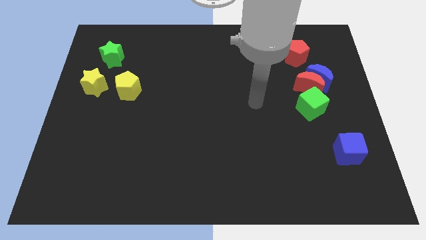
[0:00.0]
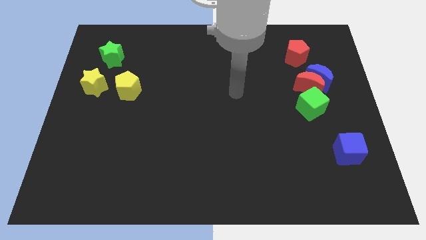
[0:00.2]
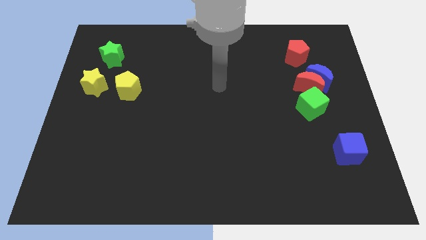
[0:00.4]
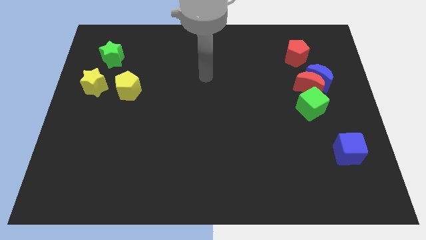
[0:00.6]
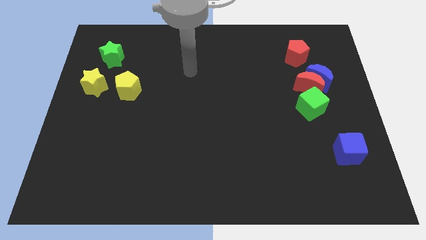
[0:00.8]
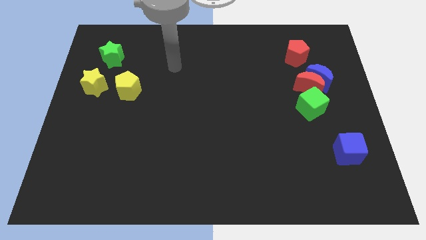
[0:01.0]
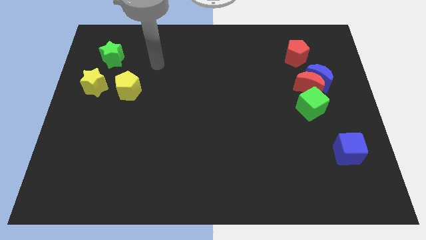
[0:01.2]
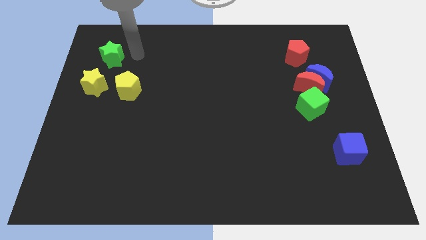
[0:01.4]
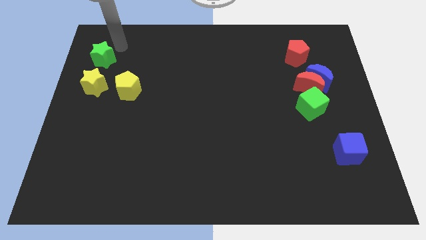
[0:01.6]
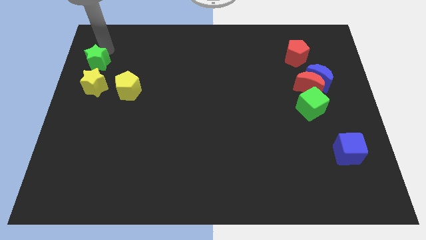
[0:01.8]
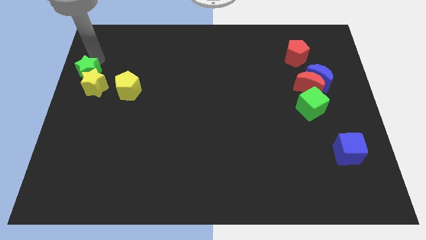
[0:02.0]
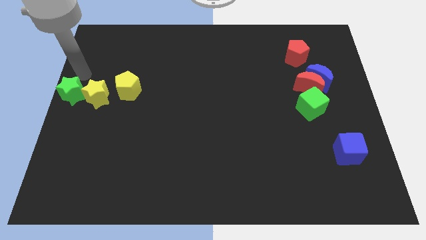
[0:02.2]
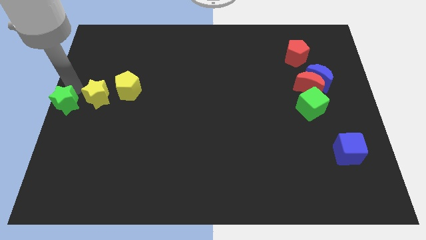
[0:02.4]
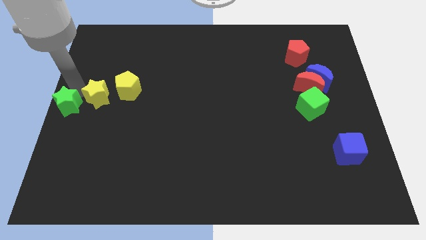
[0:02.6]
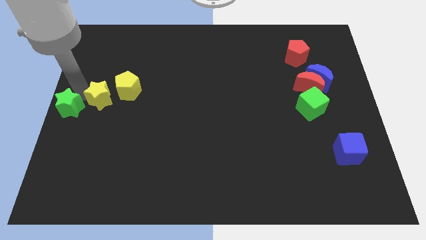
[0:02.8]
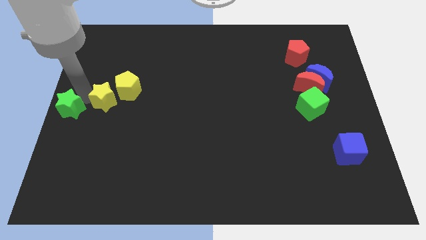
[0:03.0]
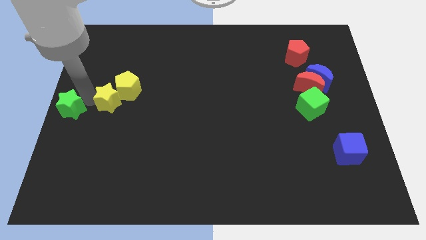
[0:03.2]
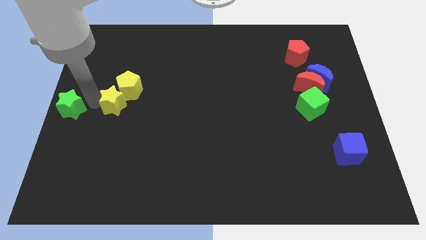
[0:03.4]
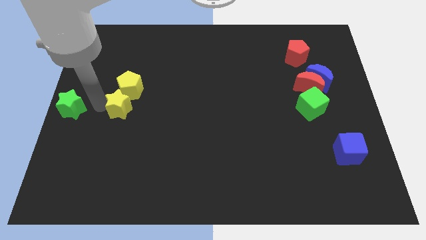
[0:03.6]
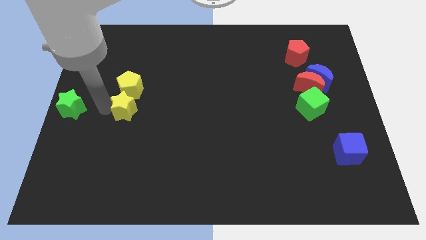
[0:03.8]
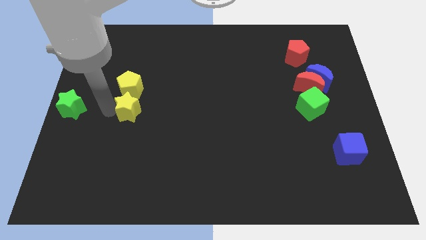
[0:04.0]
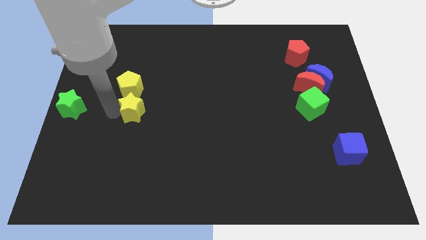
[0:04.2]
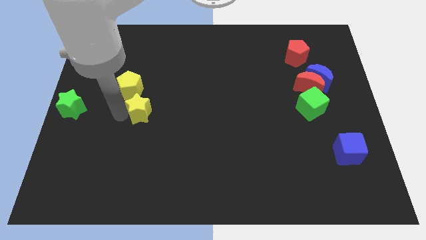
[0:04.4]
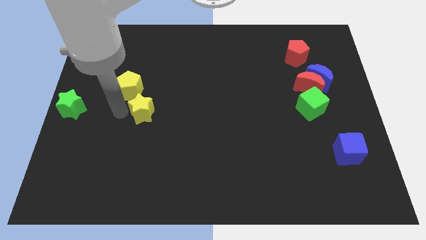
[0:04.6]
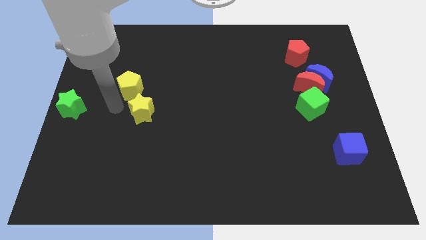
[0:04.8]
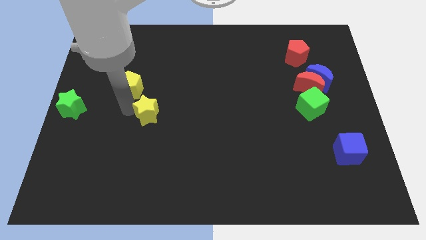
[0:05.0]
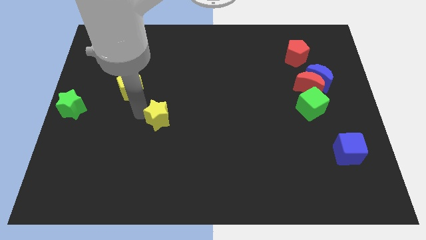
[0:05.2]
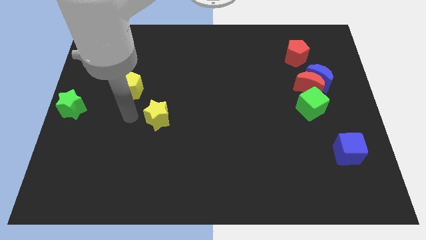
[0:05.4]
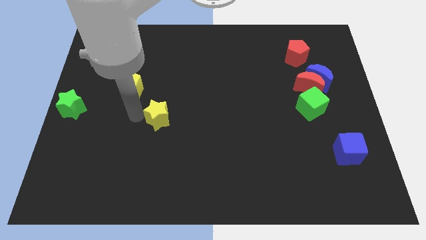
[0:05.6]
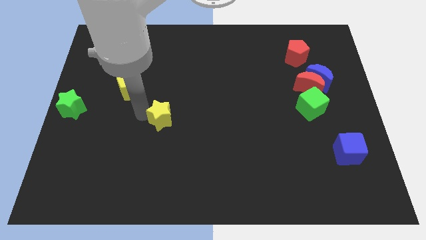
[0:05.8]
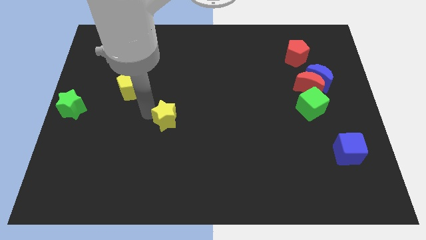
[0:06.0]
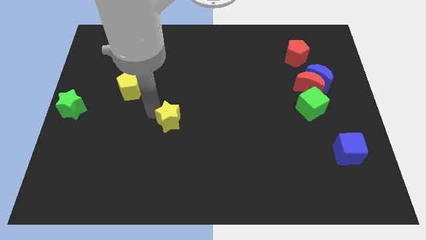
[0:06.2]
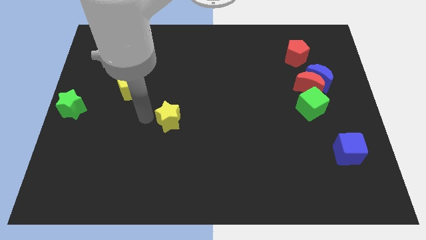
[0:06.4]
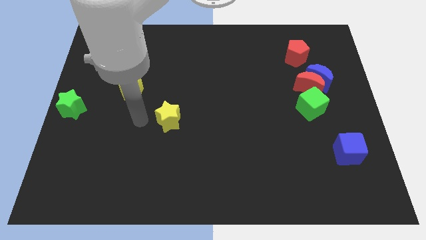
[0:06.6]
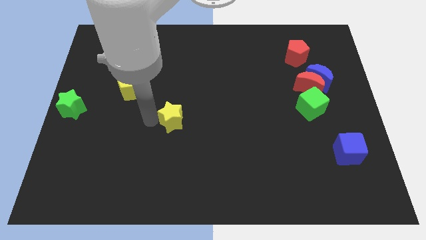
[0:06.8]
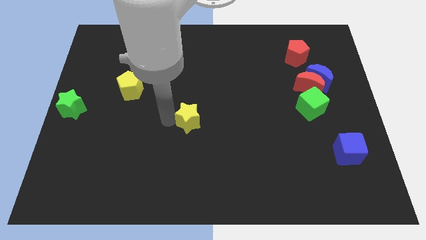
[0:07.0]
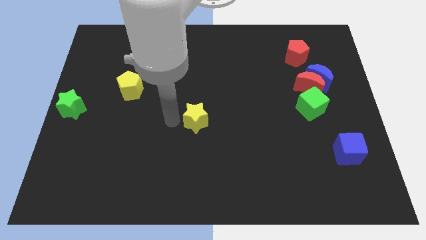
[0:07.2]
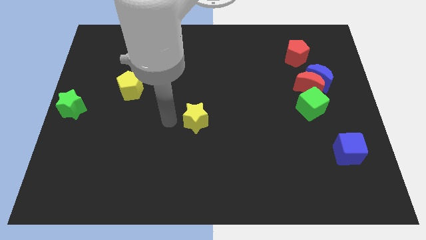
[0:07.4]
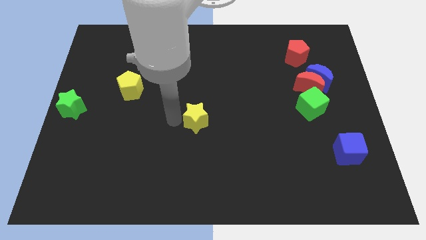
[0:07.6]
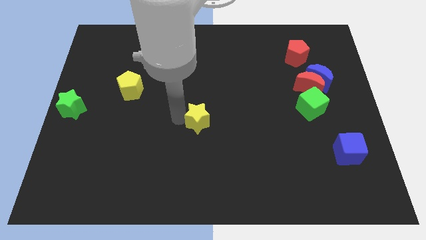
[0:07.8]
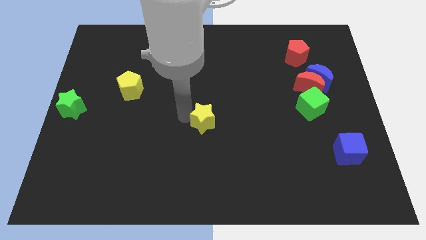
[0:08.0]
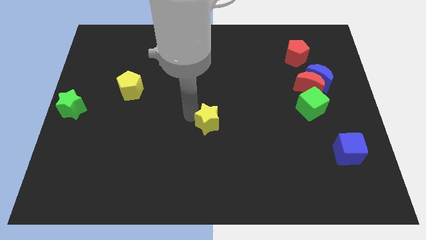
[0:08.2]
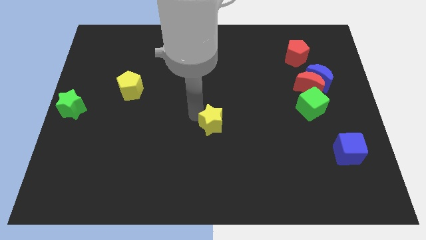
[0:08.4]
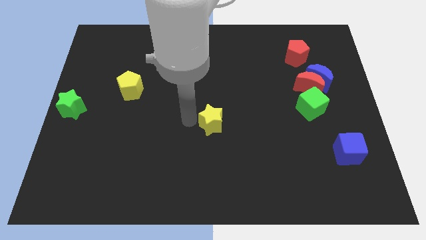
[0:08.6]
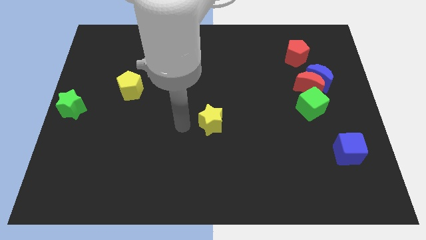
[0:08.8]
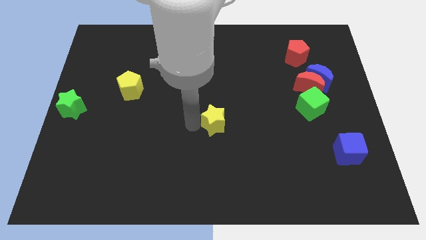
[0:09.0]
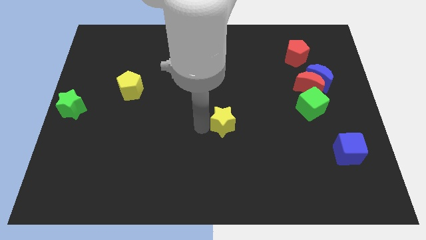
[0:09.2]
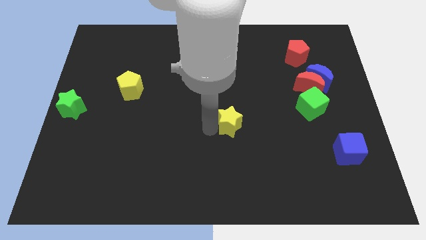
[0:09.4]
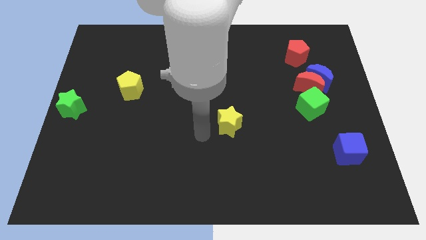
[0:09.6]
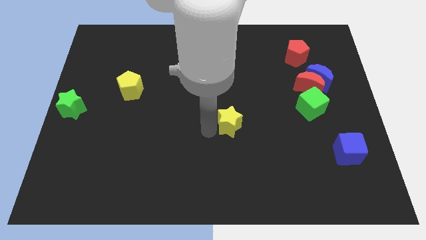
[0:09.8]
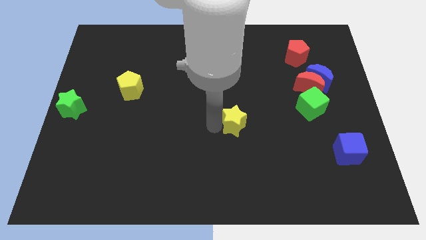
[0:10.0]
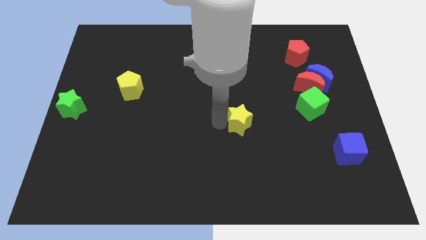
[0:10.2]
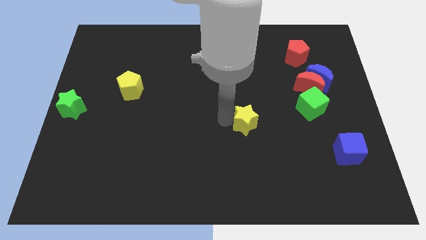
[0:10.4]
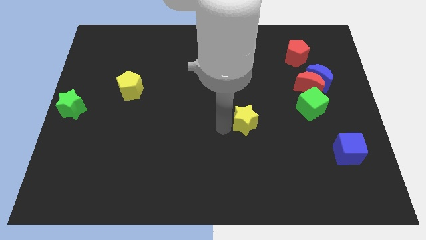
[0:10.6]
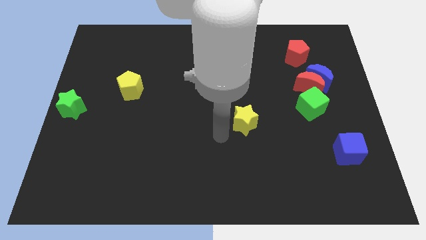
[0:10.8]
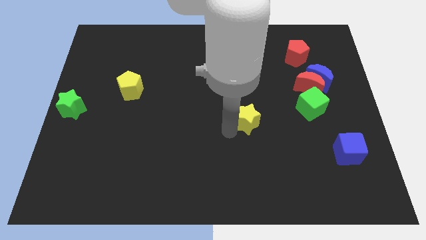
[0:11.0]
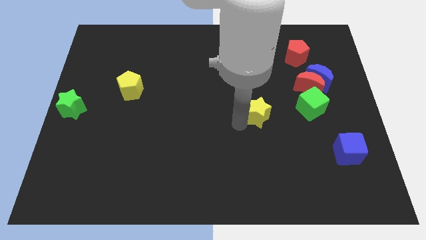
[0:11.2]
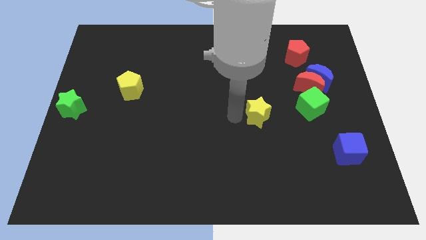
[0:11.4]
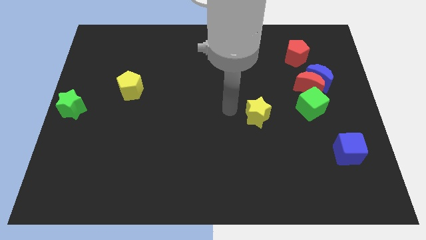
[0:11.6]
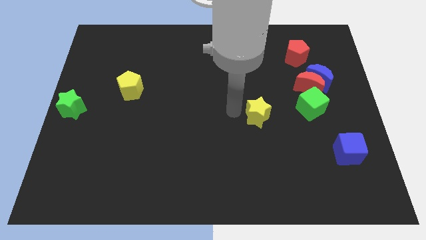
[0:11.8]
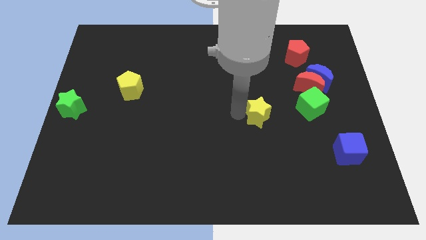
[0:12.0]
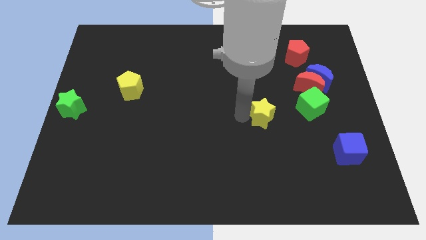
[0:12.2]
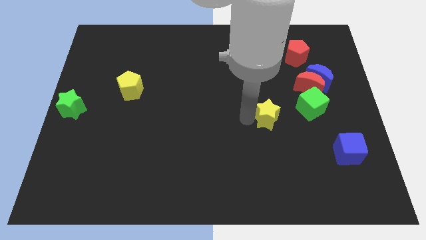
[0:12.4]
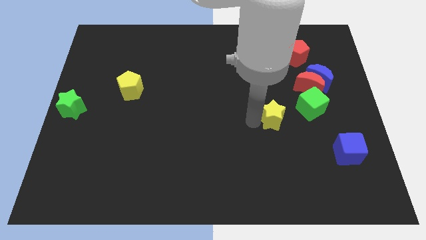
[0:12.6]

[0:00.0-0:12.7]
slide the yellow star diagonally down and to the left of the green cube

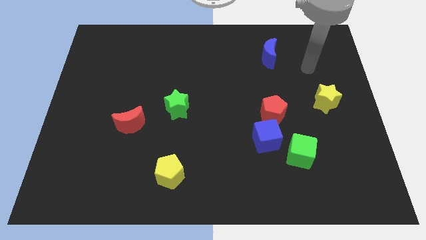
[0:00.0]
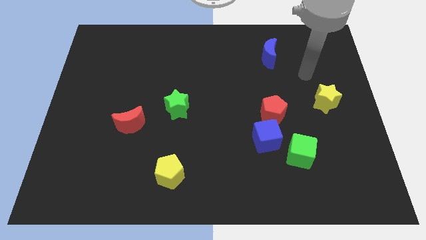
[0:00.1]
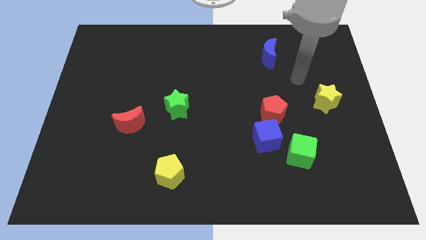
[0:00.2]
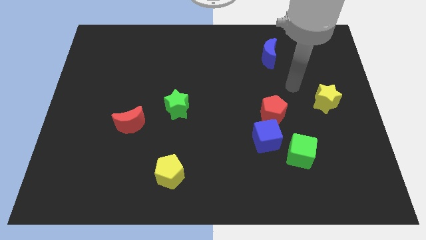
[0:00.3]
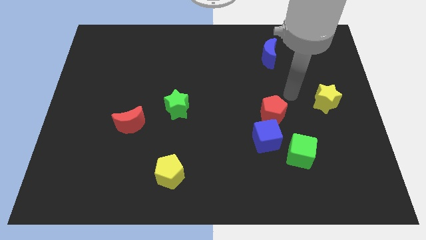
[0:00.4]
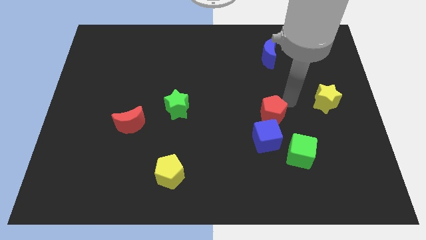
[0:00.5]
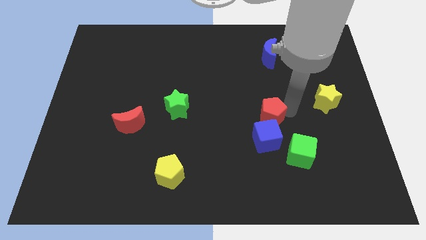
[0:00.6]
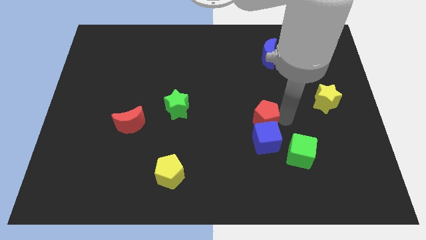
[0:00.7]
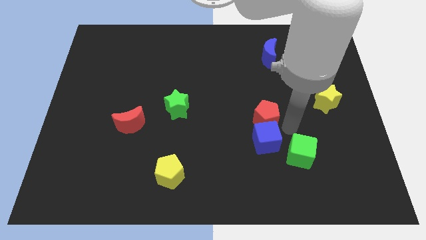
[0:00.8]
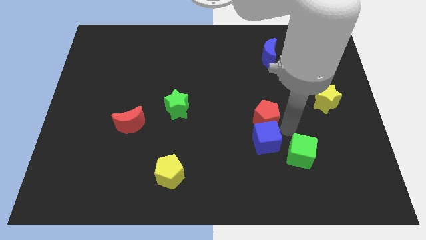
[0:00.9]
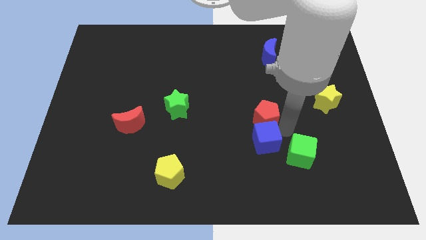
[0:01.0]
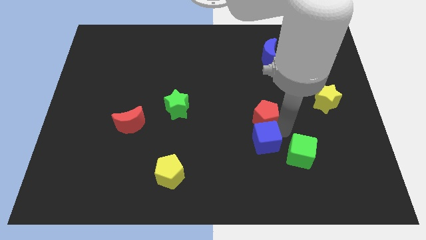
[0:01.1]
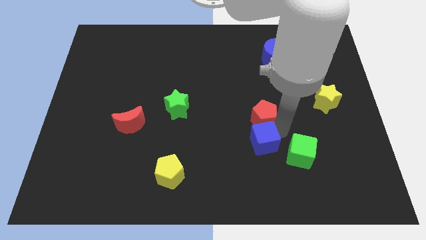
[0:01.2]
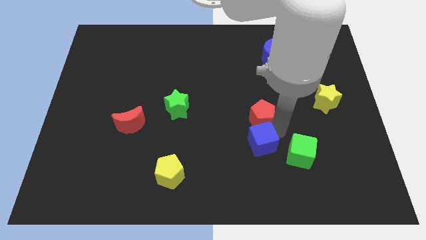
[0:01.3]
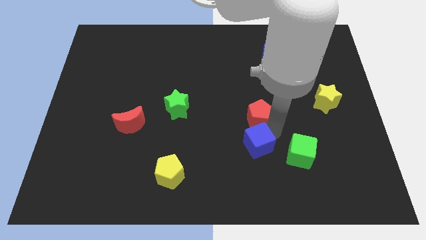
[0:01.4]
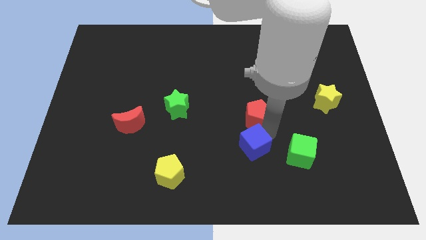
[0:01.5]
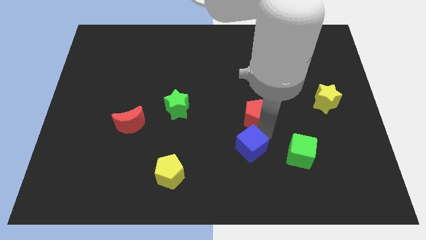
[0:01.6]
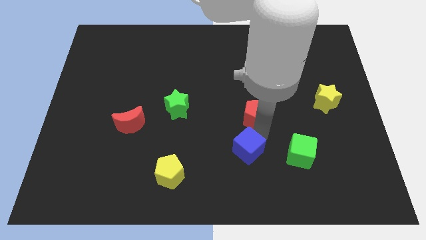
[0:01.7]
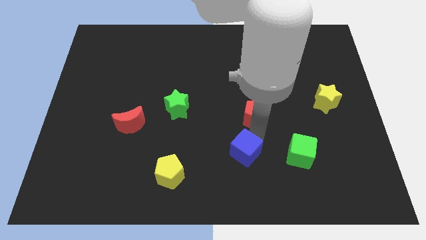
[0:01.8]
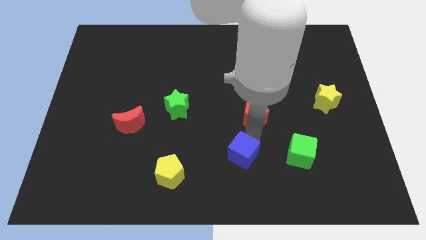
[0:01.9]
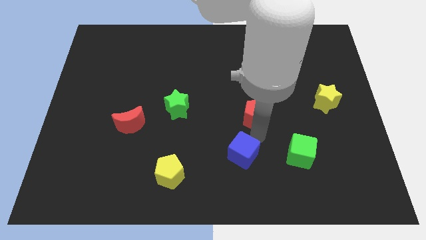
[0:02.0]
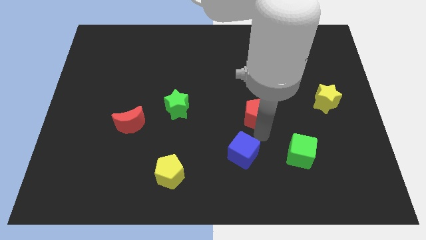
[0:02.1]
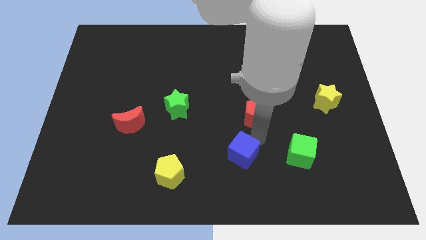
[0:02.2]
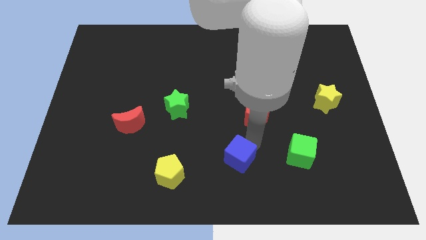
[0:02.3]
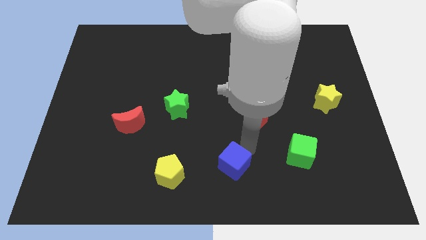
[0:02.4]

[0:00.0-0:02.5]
put the blue cube right of the yellow pentagon
